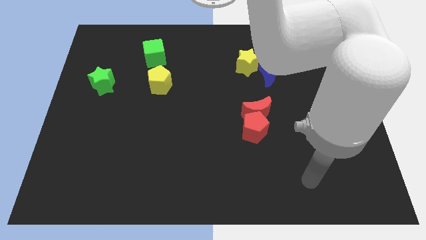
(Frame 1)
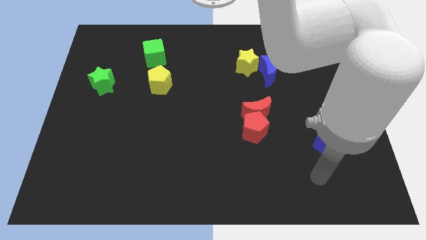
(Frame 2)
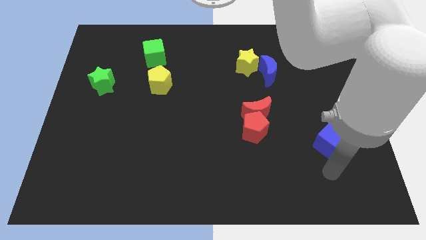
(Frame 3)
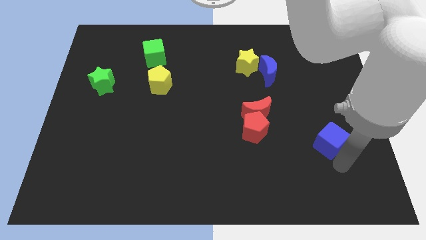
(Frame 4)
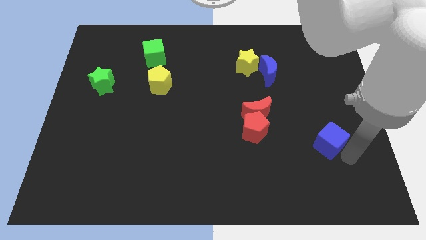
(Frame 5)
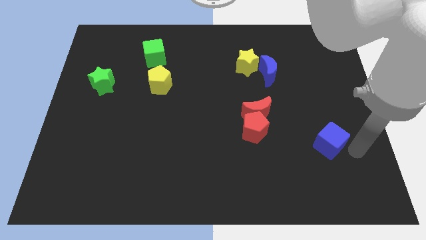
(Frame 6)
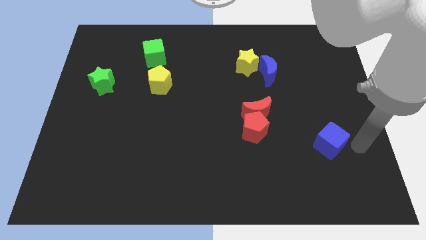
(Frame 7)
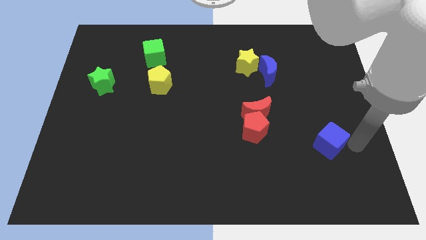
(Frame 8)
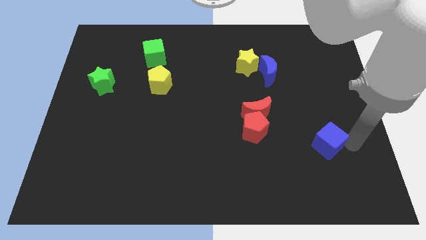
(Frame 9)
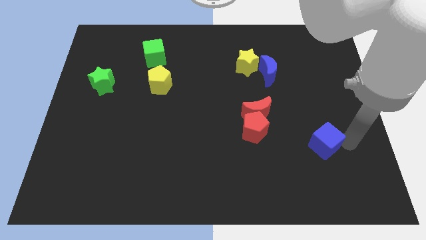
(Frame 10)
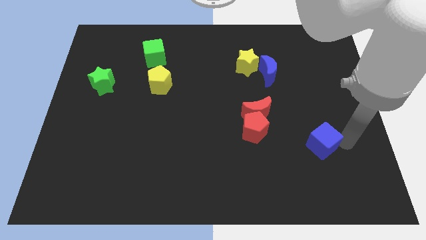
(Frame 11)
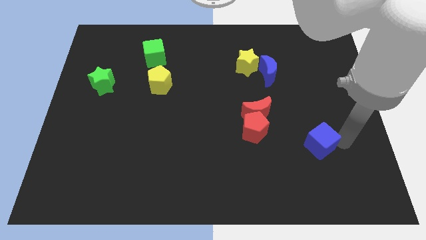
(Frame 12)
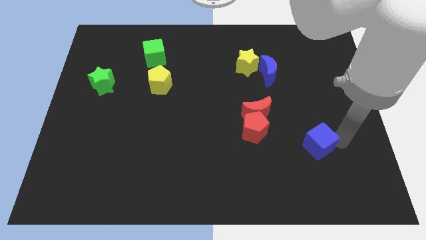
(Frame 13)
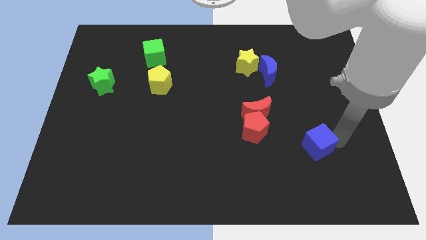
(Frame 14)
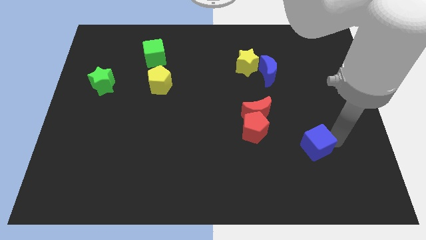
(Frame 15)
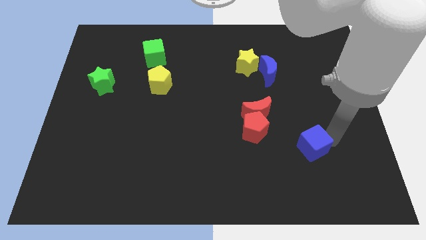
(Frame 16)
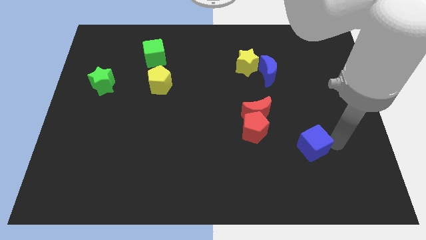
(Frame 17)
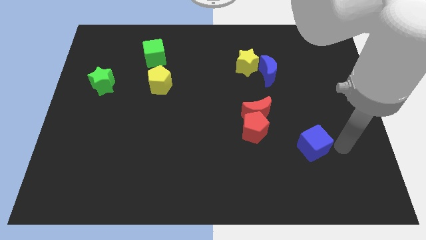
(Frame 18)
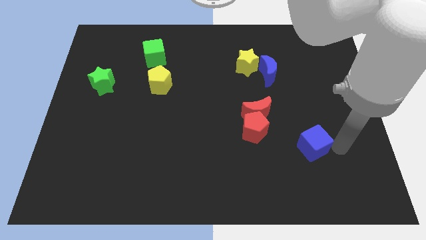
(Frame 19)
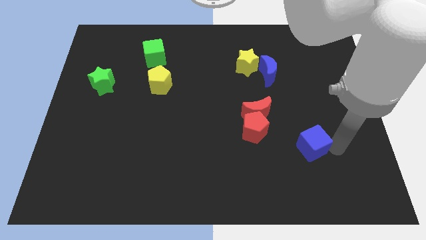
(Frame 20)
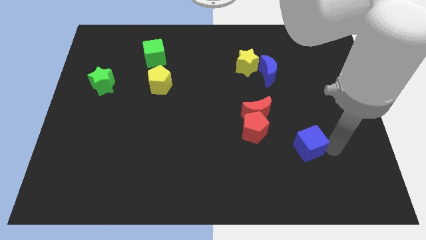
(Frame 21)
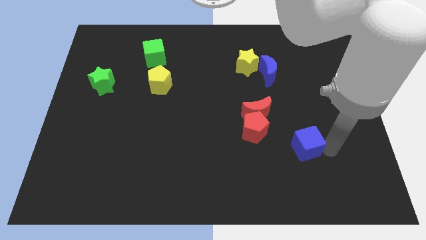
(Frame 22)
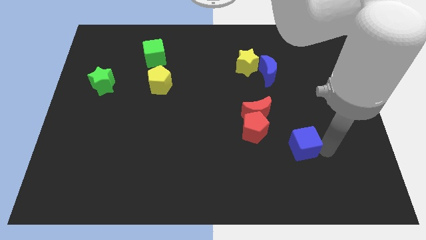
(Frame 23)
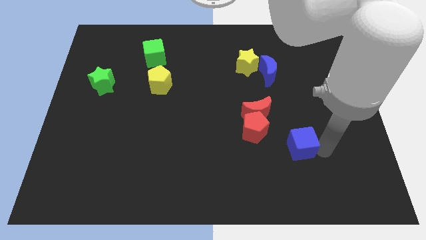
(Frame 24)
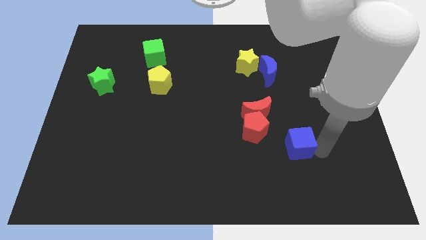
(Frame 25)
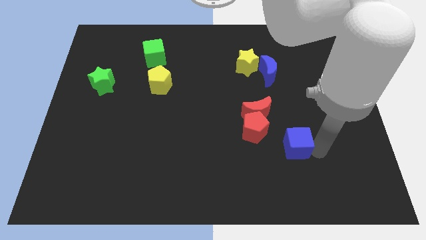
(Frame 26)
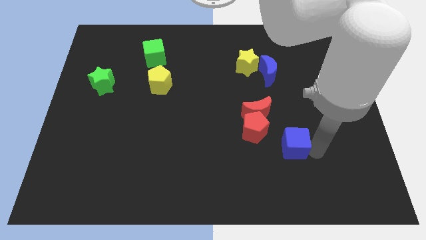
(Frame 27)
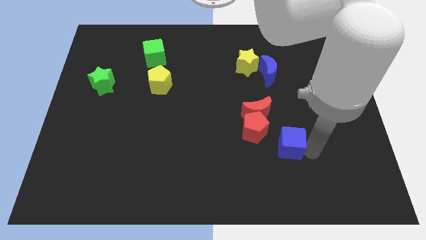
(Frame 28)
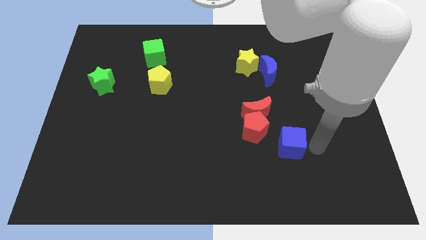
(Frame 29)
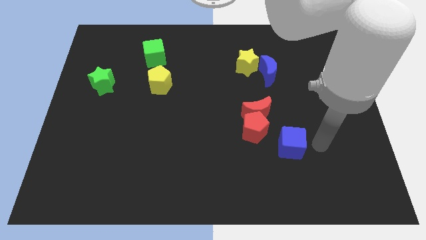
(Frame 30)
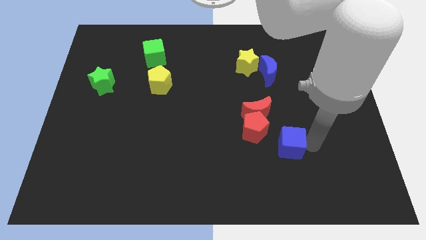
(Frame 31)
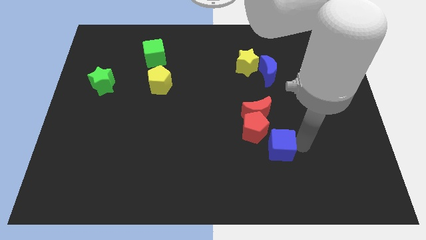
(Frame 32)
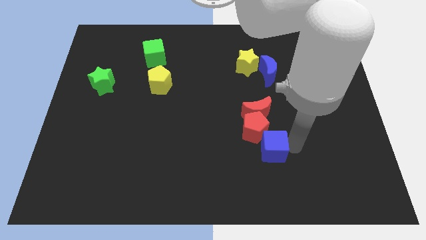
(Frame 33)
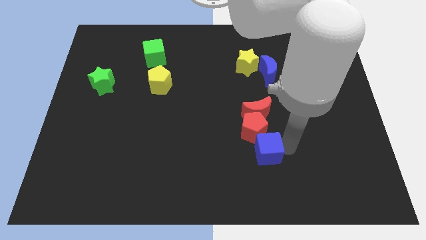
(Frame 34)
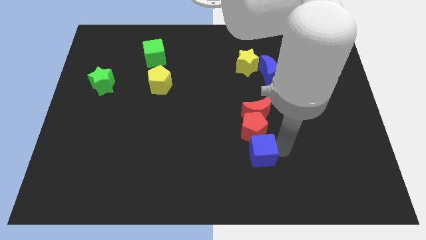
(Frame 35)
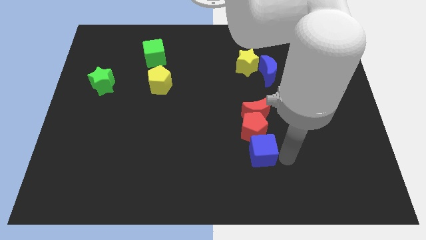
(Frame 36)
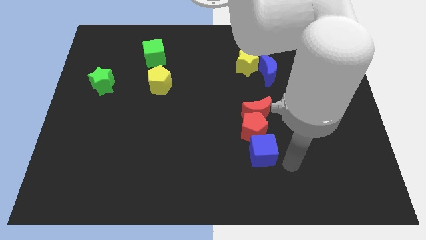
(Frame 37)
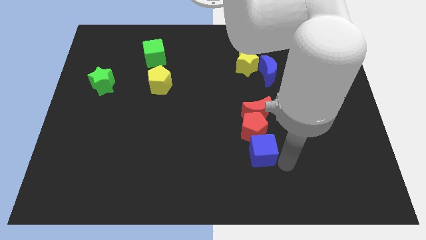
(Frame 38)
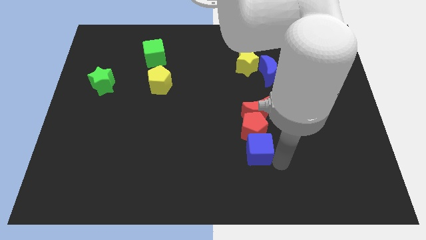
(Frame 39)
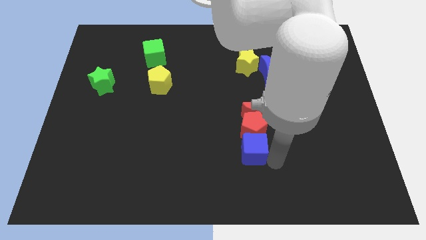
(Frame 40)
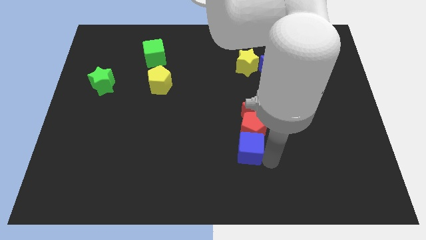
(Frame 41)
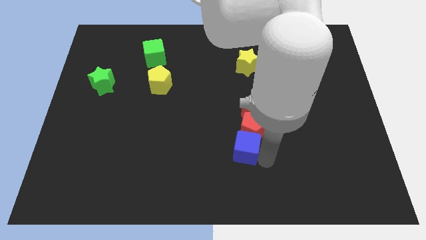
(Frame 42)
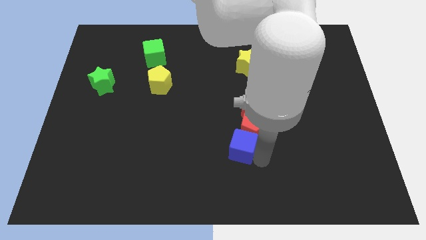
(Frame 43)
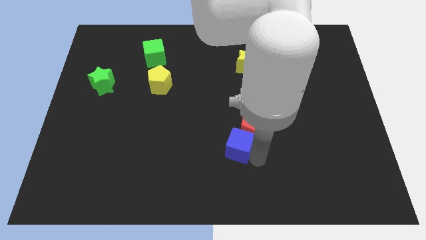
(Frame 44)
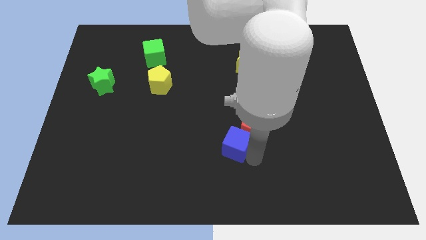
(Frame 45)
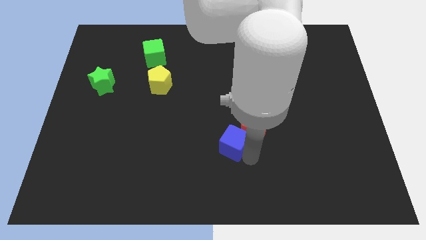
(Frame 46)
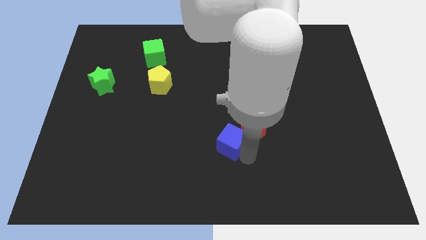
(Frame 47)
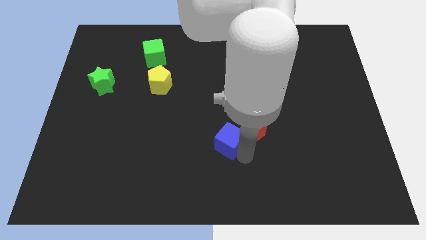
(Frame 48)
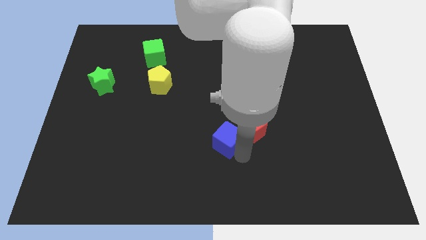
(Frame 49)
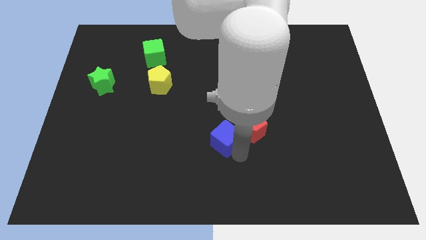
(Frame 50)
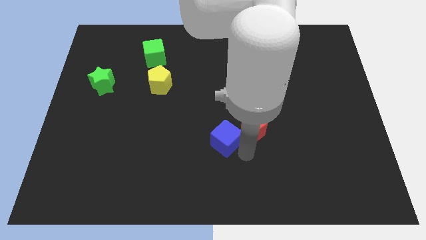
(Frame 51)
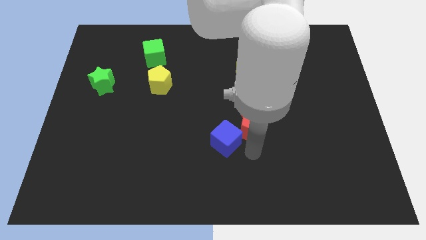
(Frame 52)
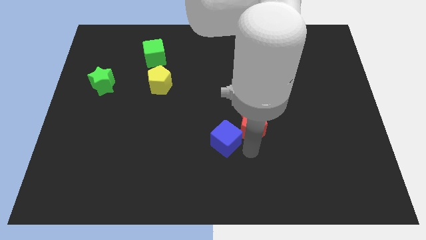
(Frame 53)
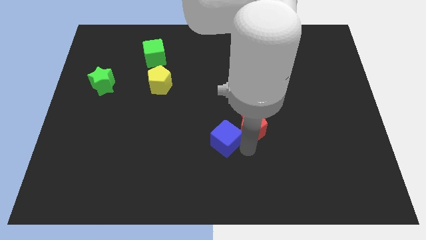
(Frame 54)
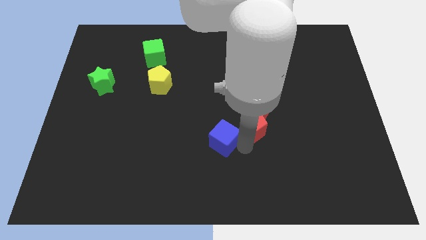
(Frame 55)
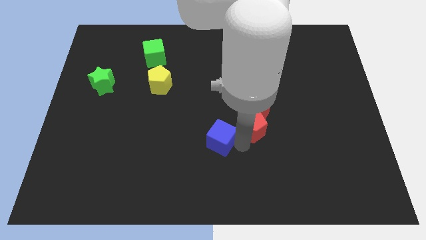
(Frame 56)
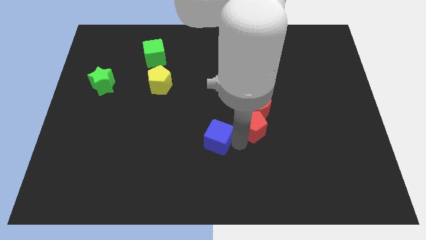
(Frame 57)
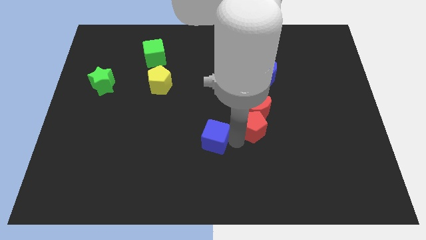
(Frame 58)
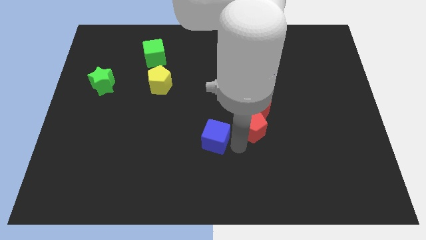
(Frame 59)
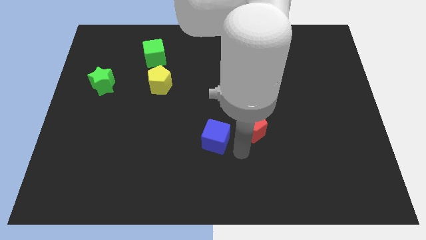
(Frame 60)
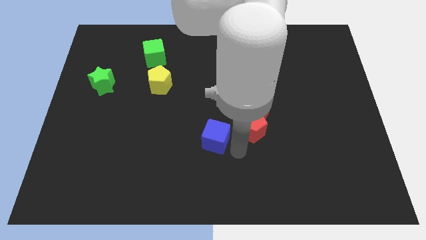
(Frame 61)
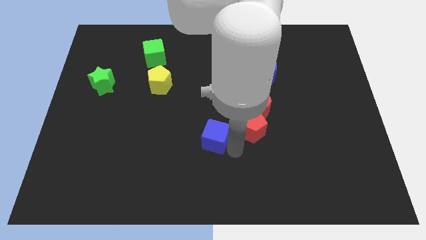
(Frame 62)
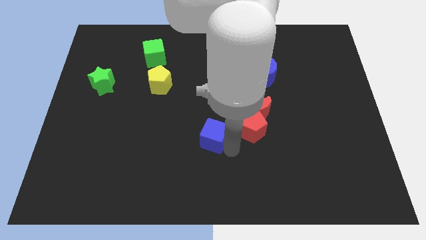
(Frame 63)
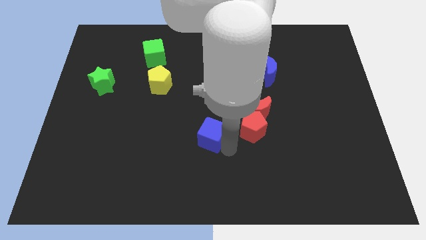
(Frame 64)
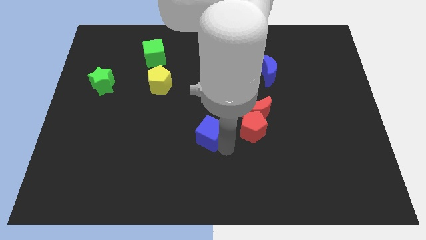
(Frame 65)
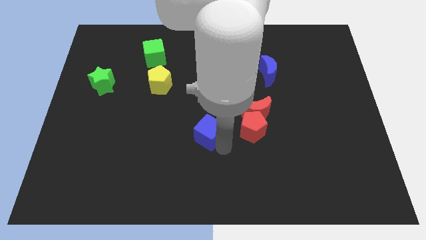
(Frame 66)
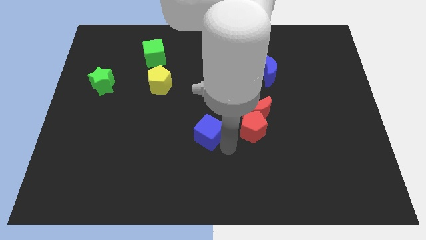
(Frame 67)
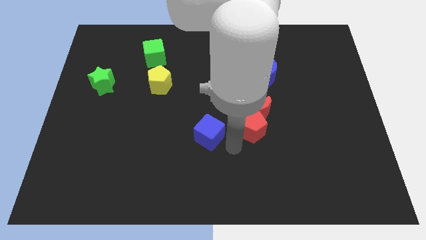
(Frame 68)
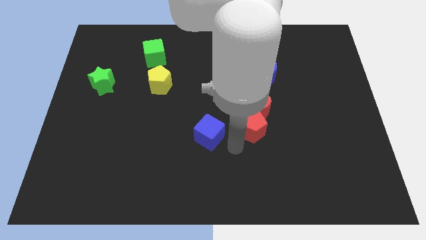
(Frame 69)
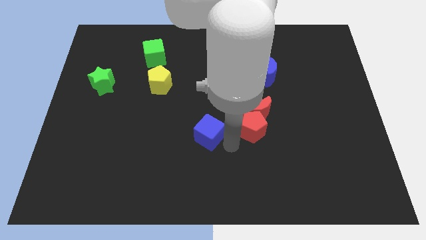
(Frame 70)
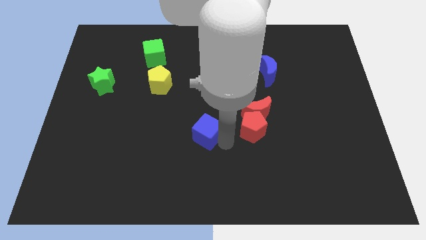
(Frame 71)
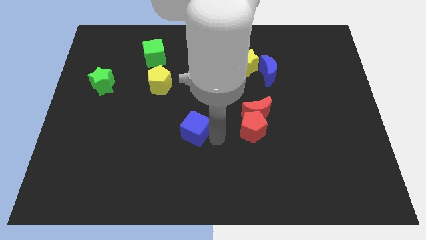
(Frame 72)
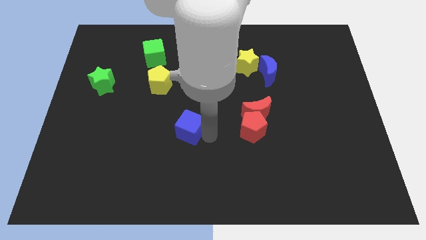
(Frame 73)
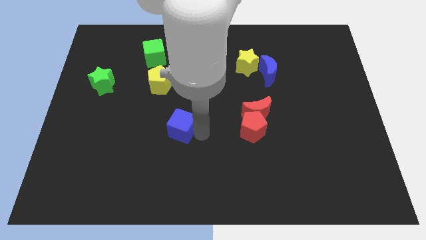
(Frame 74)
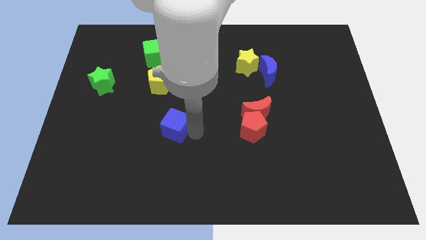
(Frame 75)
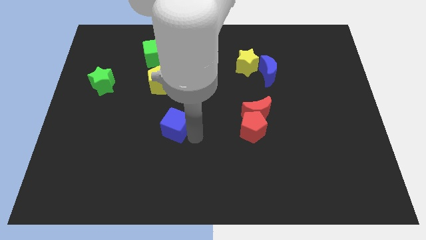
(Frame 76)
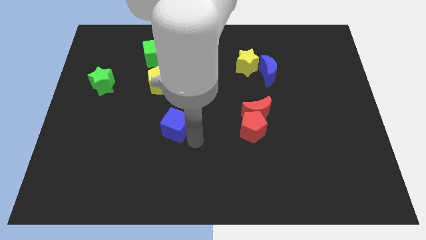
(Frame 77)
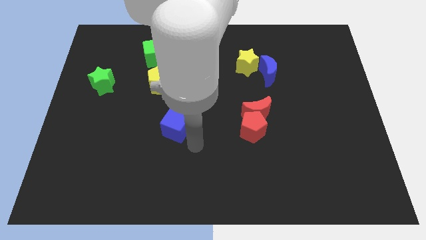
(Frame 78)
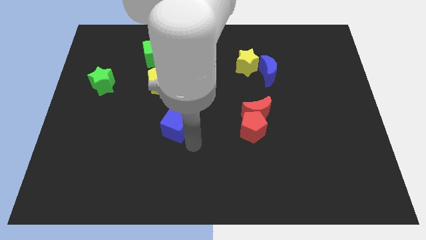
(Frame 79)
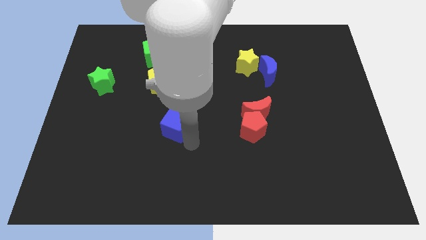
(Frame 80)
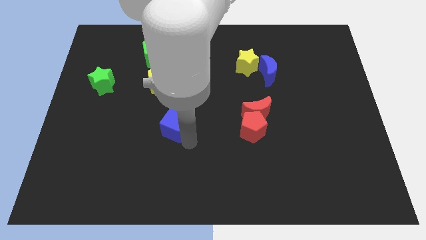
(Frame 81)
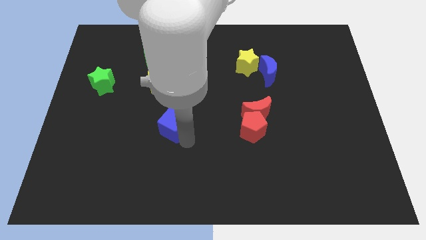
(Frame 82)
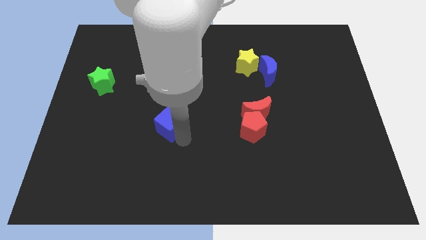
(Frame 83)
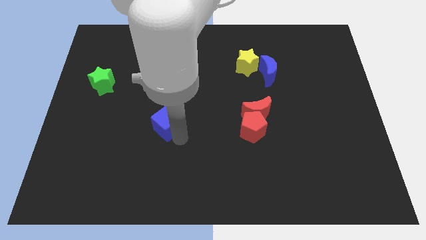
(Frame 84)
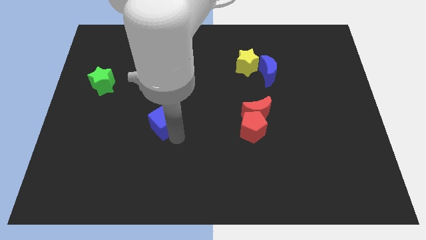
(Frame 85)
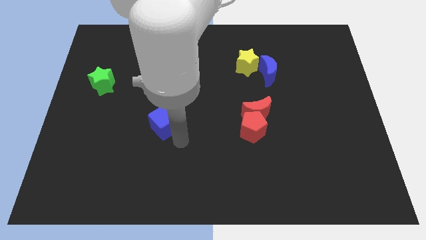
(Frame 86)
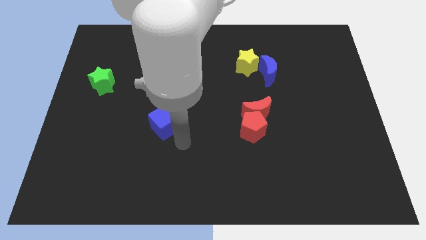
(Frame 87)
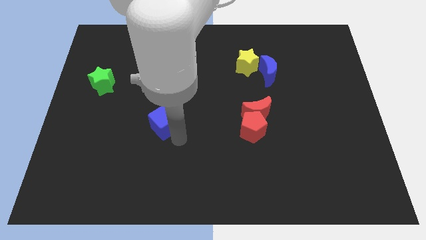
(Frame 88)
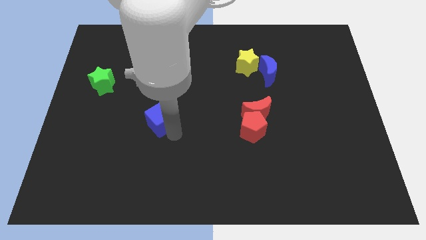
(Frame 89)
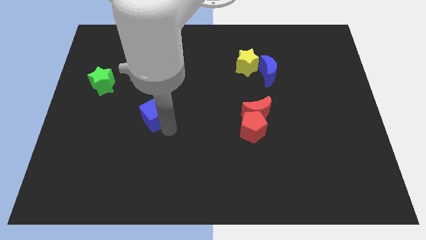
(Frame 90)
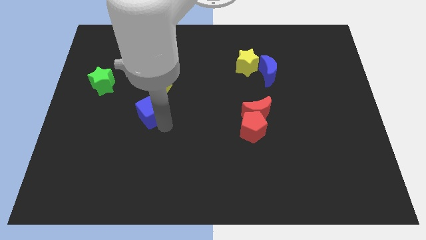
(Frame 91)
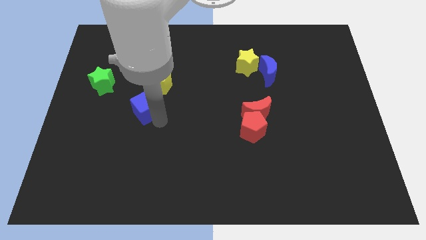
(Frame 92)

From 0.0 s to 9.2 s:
slide the blue cube diagonally down and to the left of the yellow pentagon
